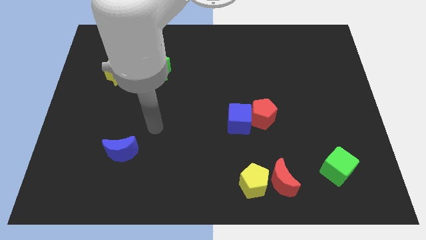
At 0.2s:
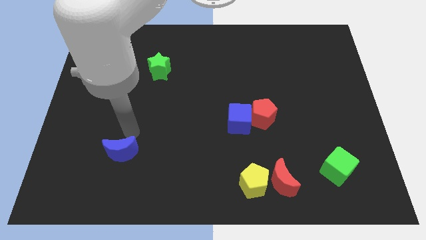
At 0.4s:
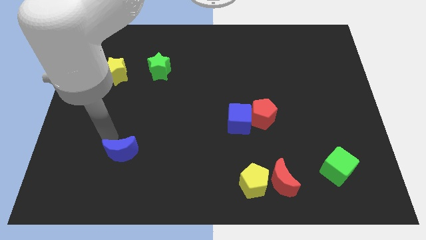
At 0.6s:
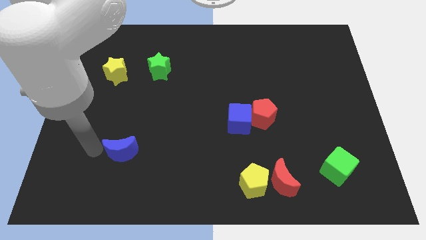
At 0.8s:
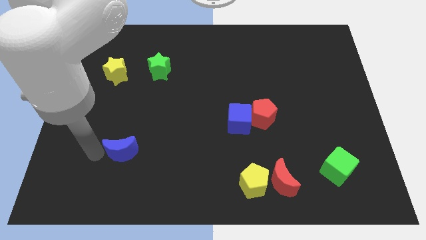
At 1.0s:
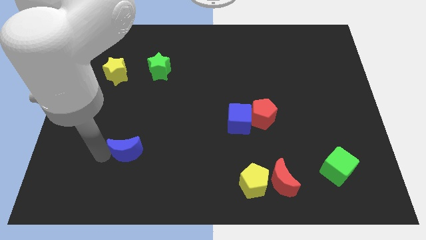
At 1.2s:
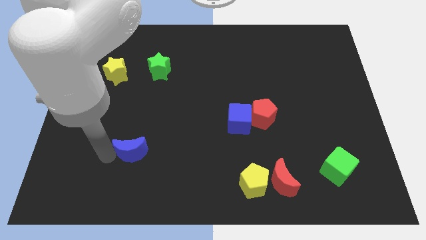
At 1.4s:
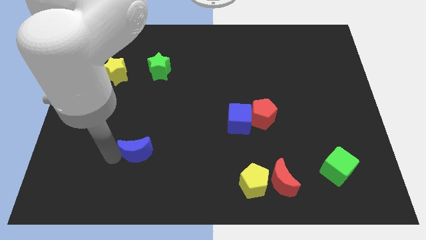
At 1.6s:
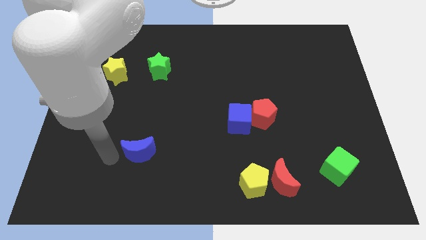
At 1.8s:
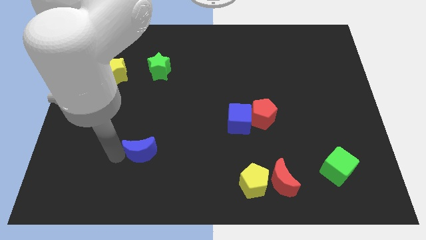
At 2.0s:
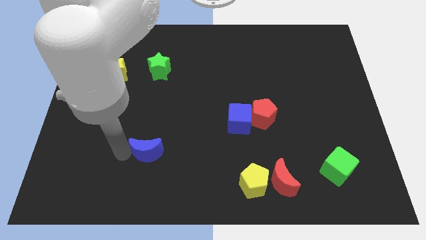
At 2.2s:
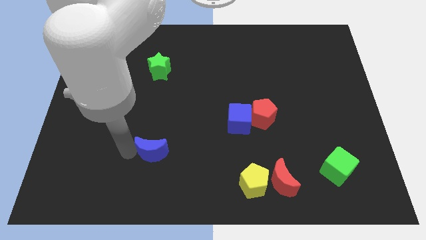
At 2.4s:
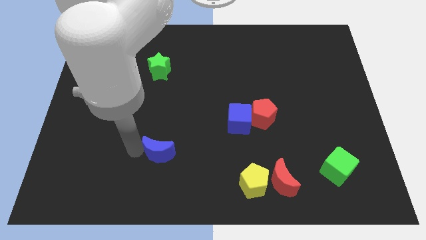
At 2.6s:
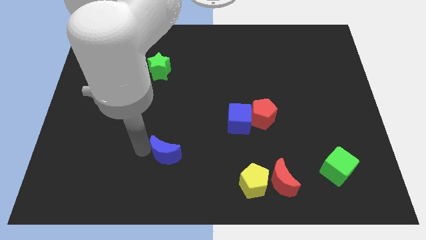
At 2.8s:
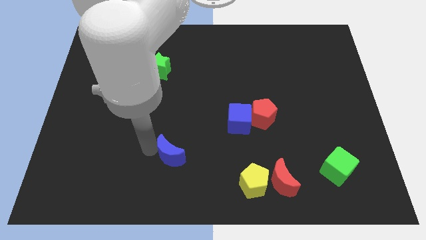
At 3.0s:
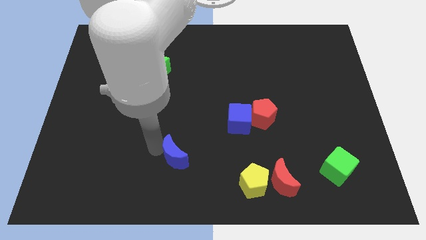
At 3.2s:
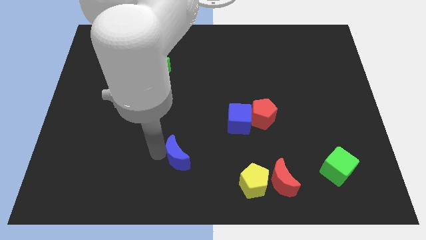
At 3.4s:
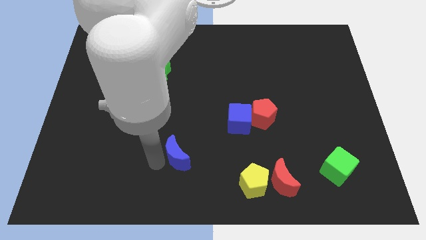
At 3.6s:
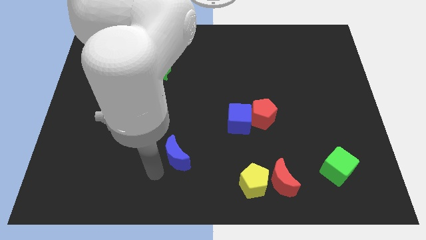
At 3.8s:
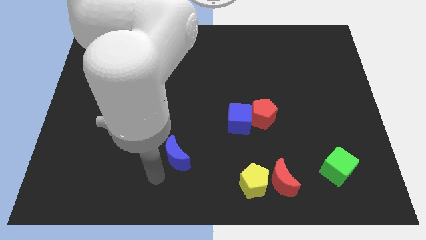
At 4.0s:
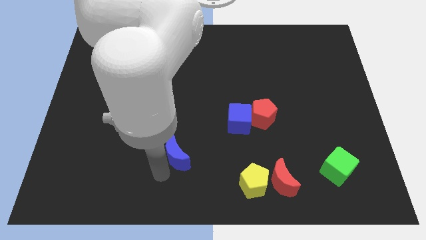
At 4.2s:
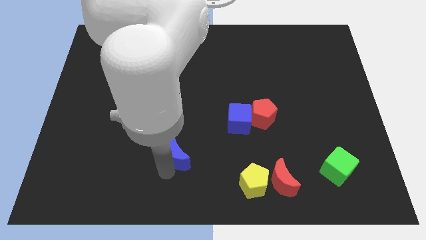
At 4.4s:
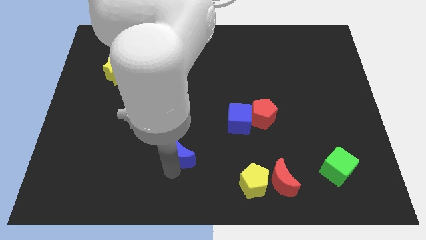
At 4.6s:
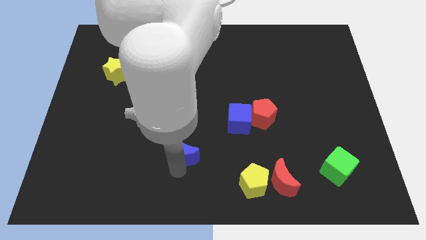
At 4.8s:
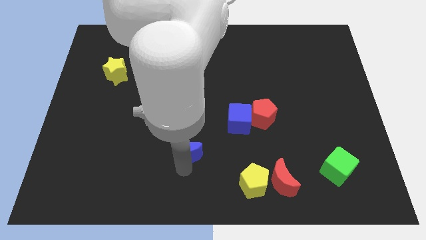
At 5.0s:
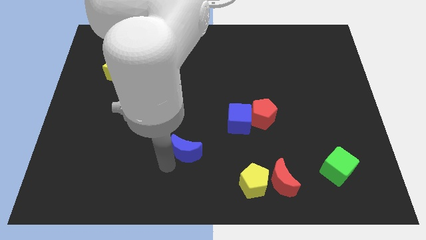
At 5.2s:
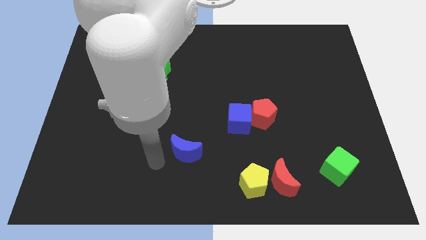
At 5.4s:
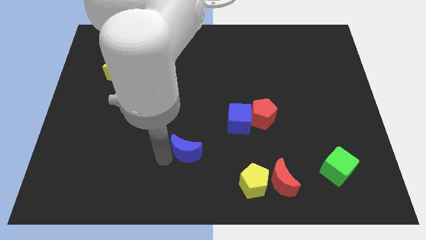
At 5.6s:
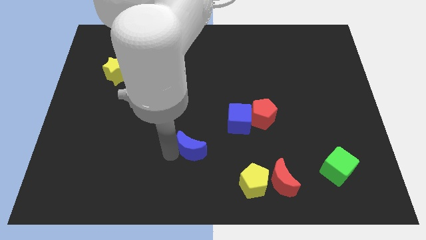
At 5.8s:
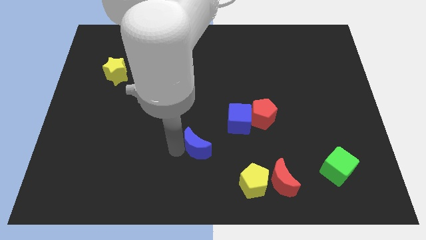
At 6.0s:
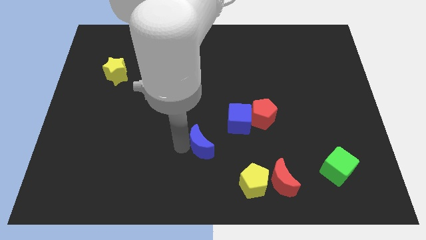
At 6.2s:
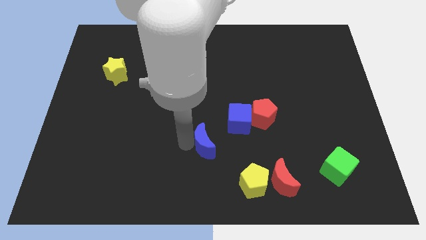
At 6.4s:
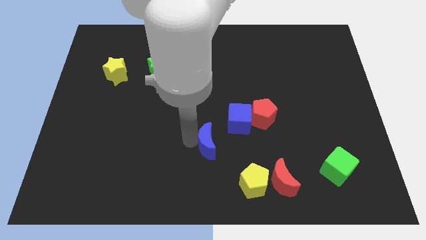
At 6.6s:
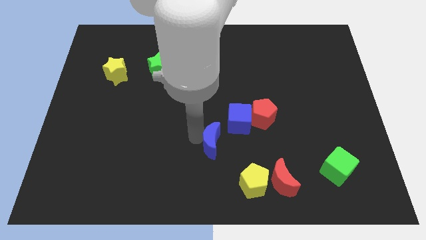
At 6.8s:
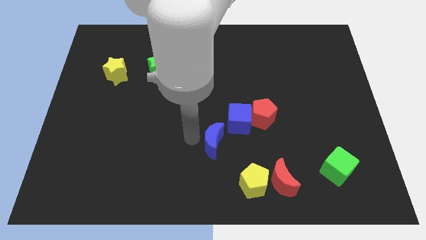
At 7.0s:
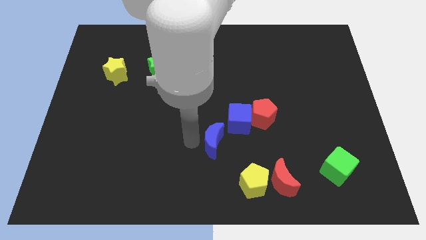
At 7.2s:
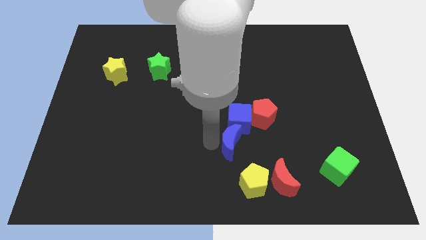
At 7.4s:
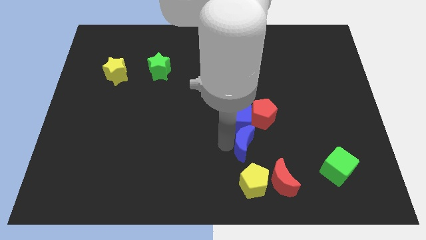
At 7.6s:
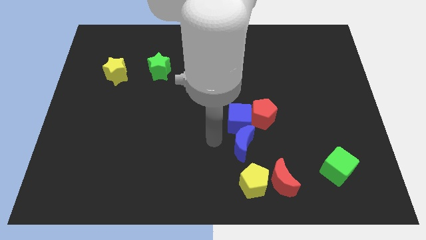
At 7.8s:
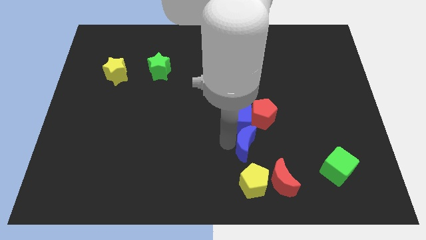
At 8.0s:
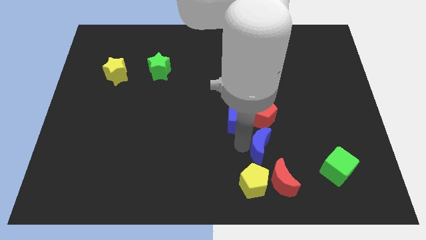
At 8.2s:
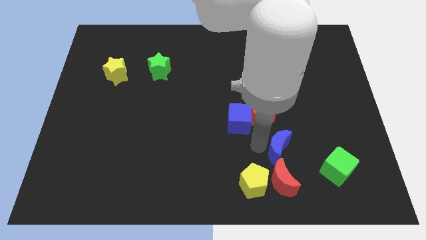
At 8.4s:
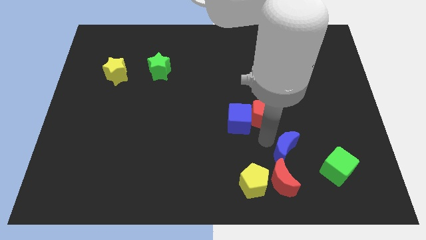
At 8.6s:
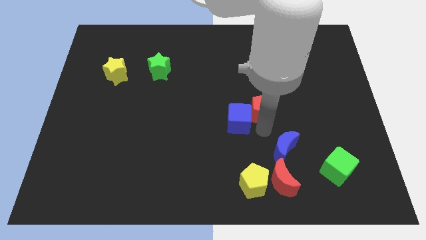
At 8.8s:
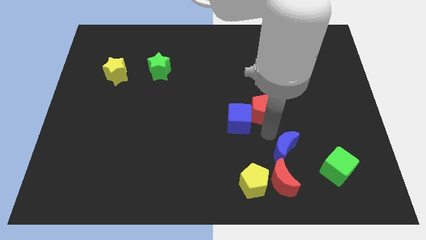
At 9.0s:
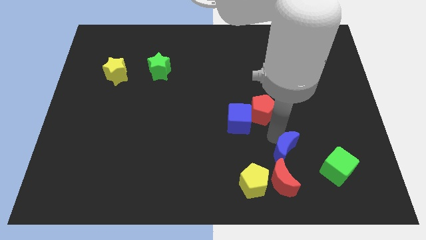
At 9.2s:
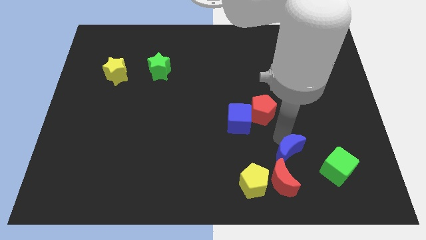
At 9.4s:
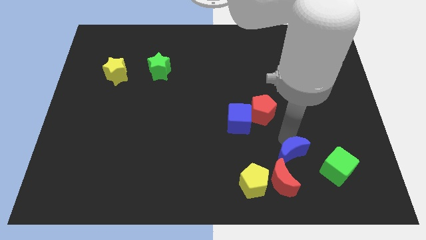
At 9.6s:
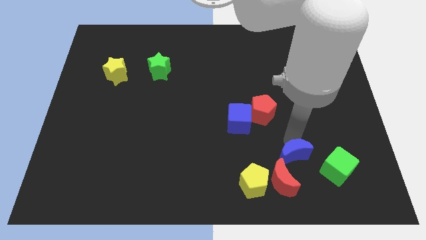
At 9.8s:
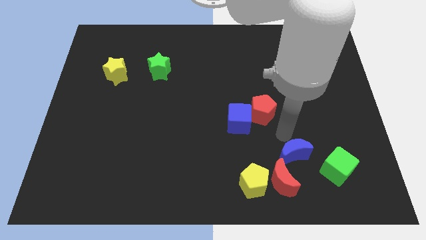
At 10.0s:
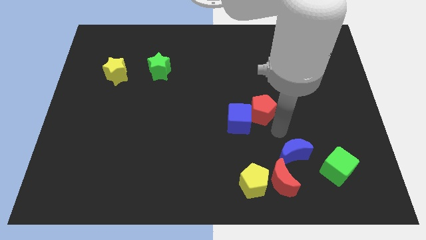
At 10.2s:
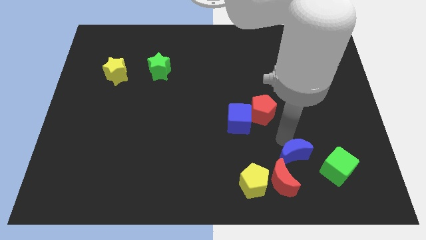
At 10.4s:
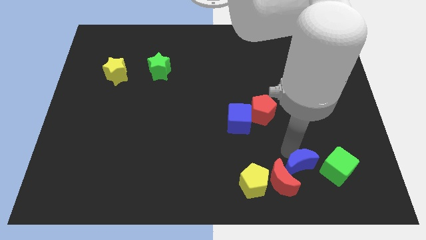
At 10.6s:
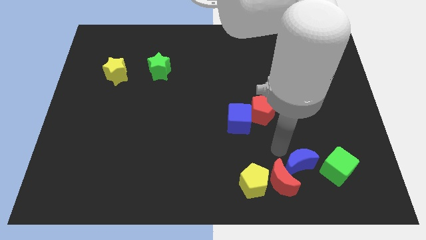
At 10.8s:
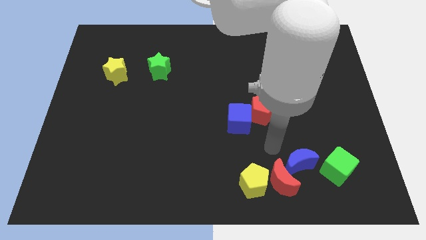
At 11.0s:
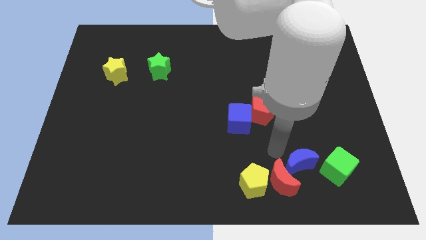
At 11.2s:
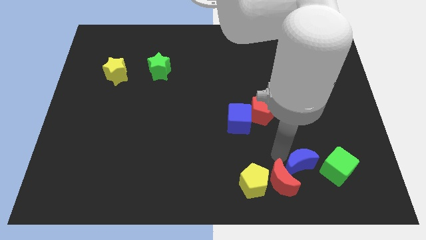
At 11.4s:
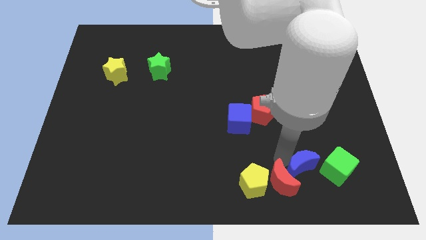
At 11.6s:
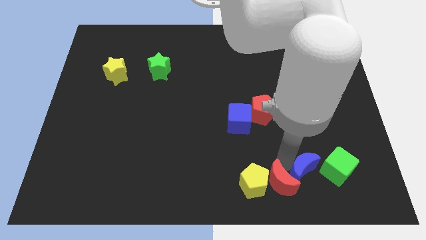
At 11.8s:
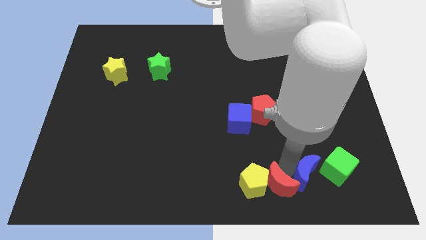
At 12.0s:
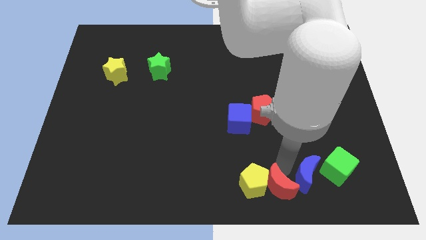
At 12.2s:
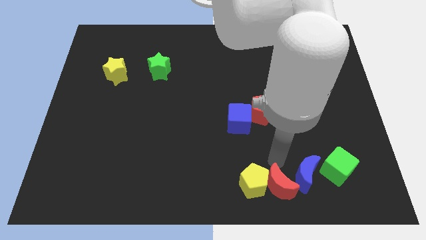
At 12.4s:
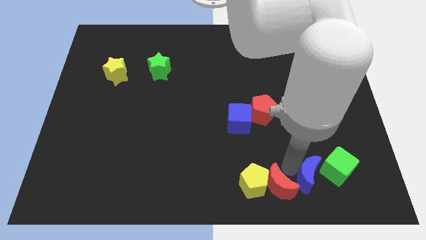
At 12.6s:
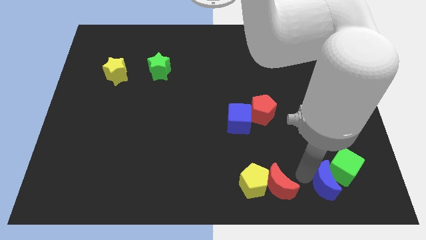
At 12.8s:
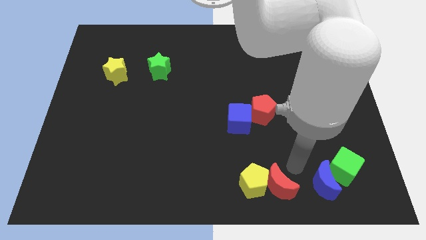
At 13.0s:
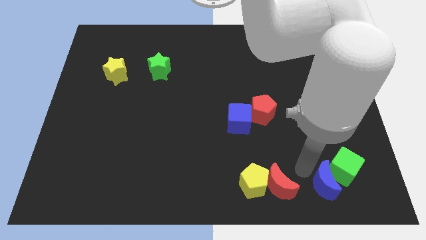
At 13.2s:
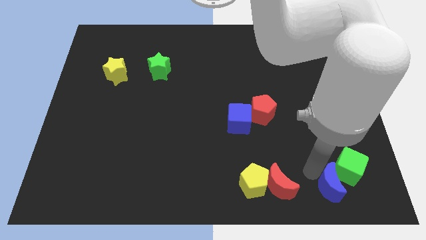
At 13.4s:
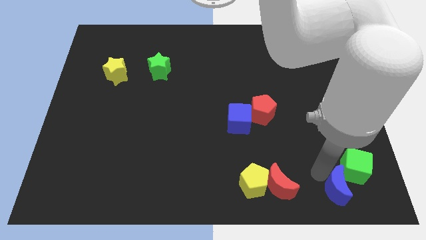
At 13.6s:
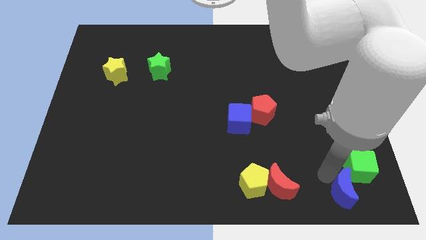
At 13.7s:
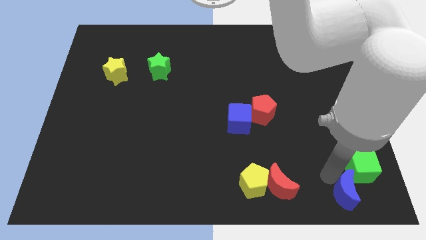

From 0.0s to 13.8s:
push the blue moon to the bottom right corner
